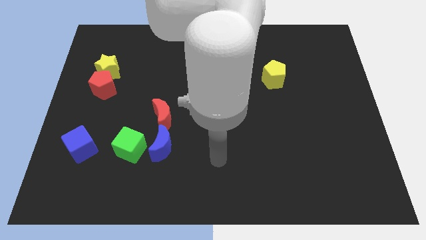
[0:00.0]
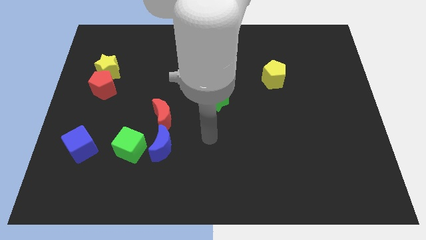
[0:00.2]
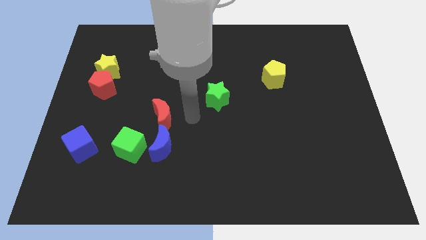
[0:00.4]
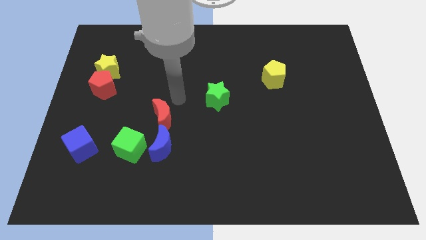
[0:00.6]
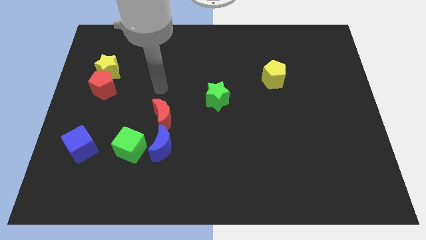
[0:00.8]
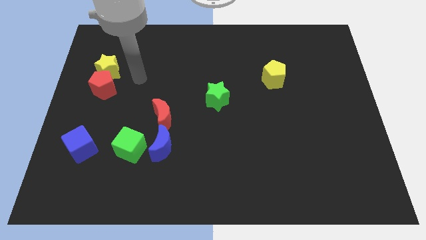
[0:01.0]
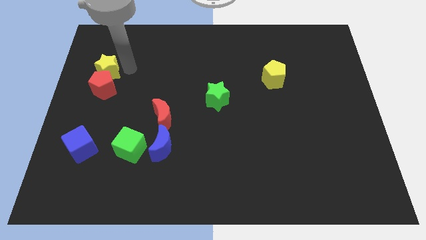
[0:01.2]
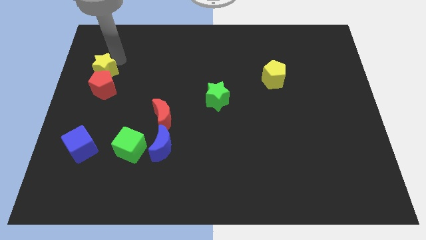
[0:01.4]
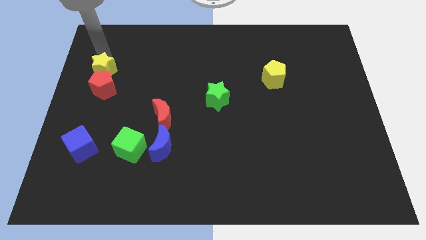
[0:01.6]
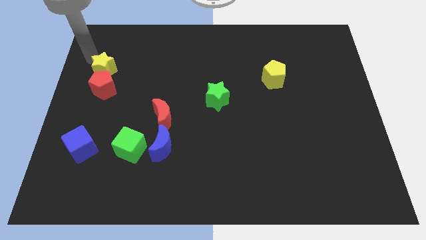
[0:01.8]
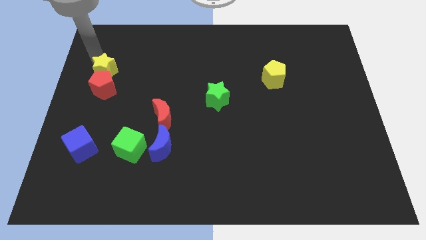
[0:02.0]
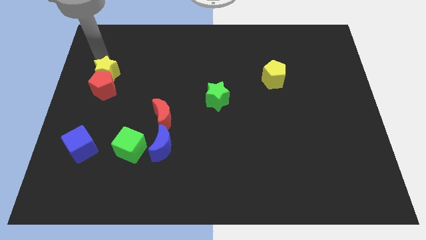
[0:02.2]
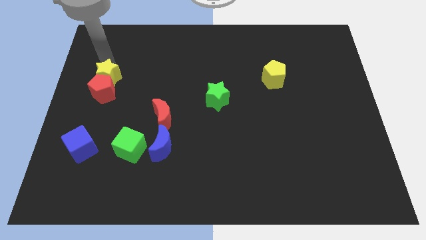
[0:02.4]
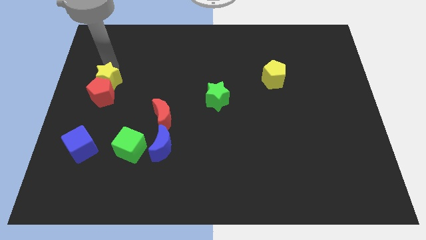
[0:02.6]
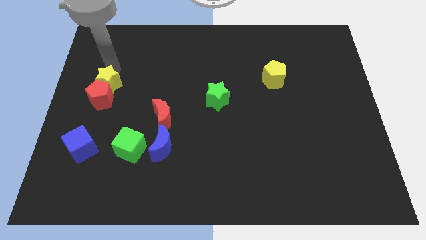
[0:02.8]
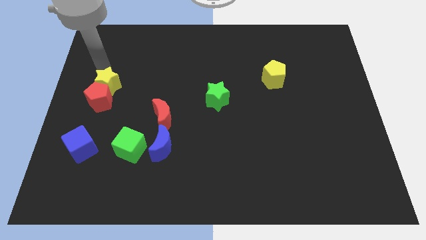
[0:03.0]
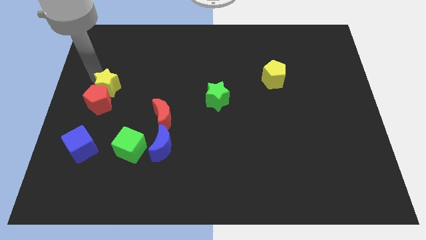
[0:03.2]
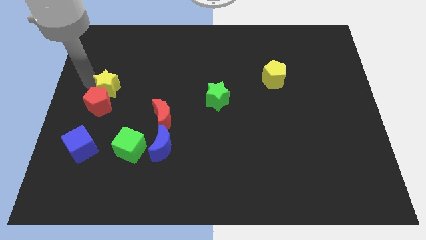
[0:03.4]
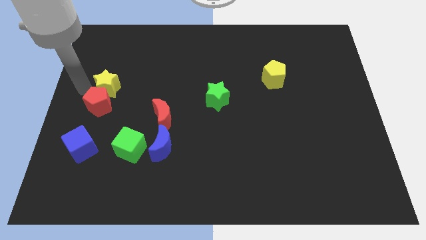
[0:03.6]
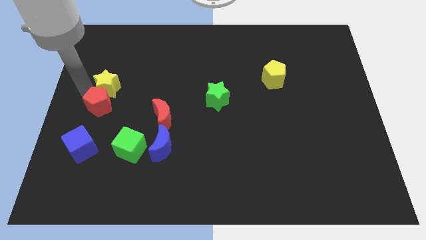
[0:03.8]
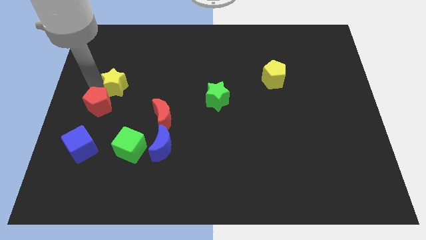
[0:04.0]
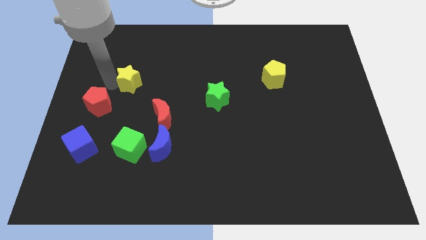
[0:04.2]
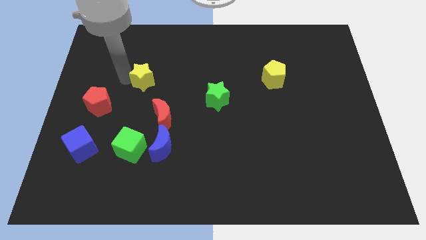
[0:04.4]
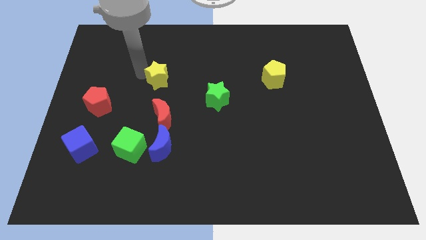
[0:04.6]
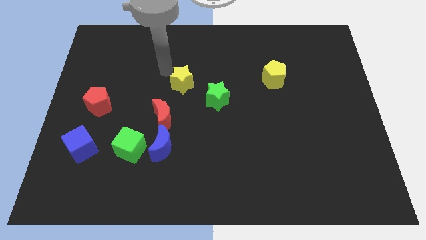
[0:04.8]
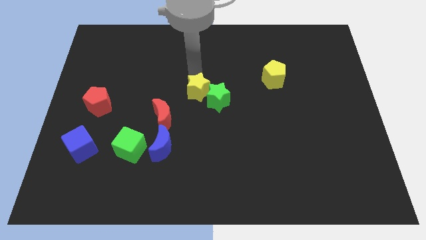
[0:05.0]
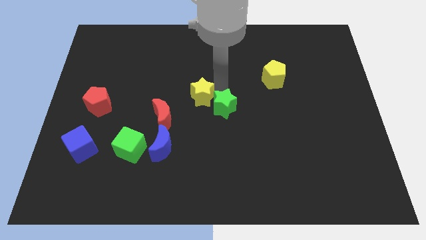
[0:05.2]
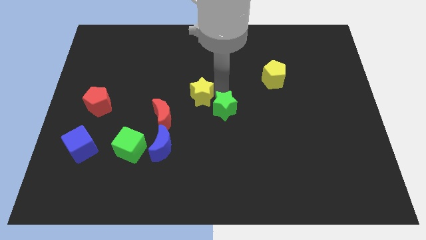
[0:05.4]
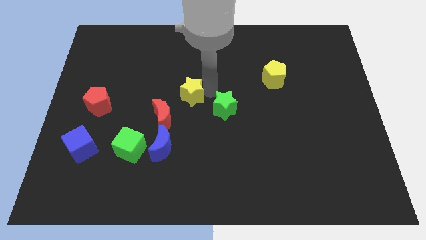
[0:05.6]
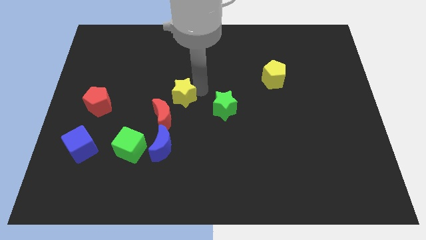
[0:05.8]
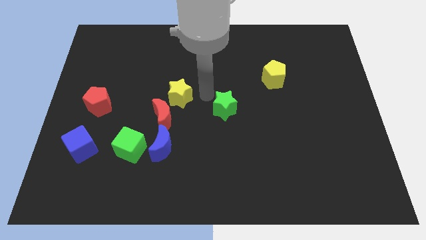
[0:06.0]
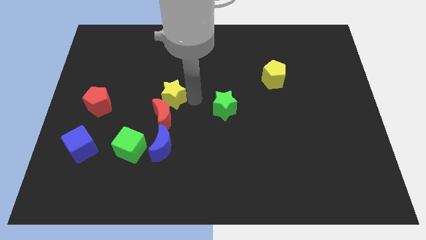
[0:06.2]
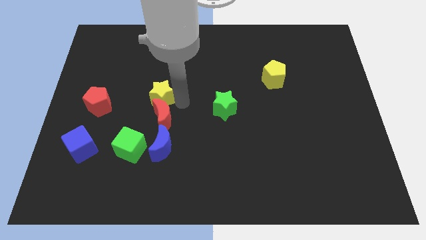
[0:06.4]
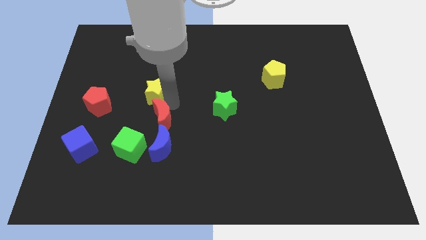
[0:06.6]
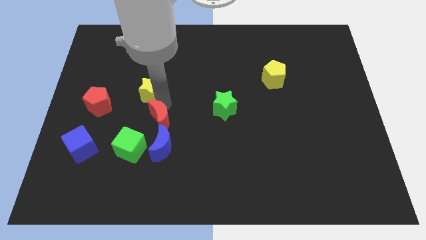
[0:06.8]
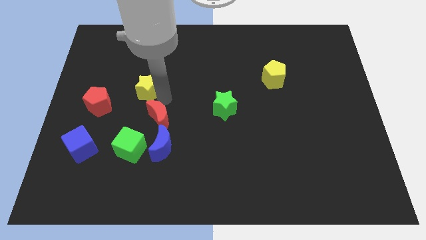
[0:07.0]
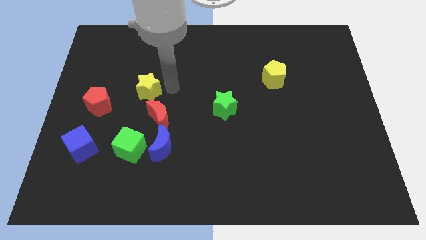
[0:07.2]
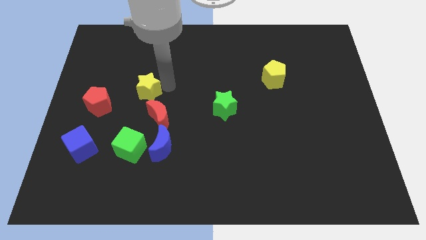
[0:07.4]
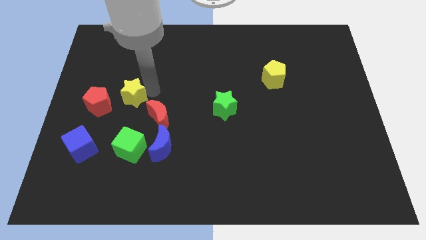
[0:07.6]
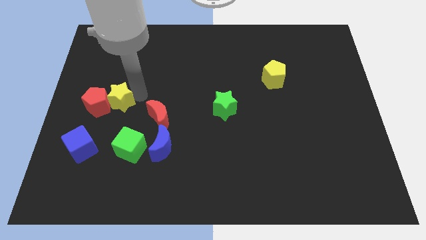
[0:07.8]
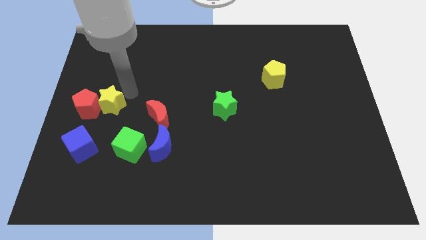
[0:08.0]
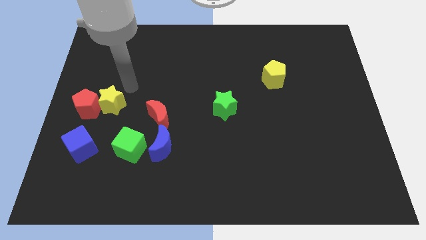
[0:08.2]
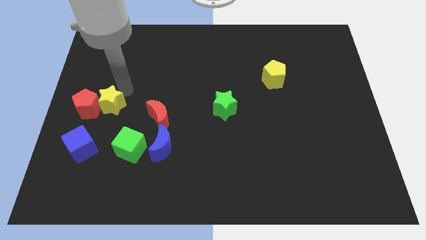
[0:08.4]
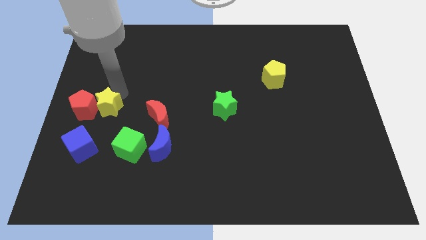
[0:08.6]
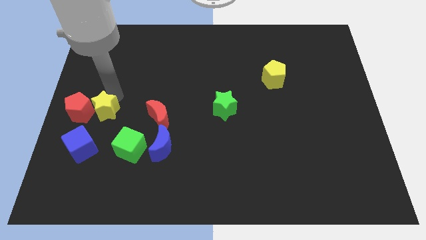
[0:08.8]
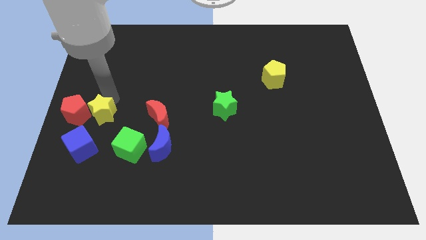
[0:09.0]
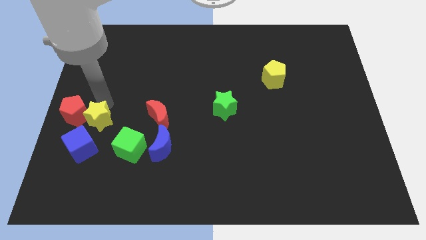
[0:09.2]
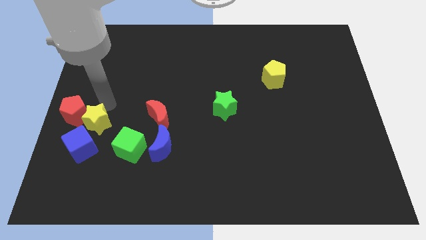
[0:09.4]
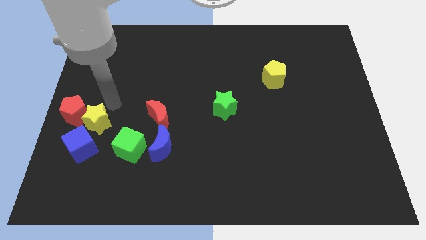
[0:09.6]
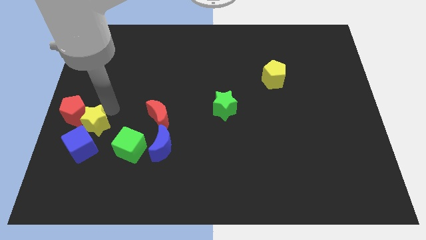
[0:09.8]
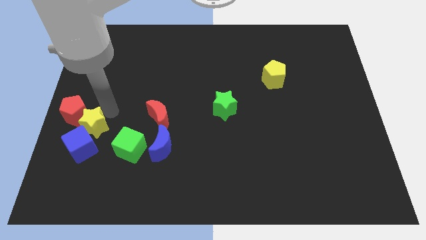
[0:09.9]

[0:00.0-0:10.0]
slide the yellow star next to the blue cube

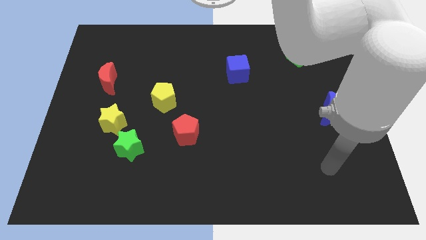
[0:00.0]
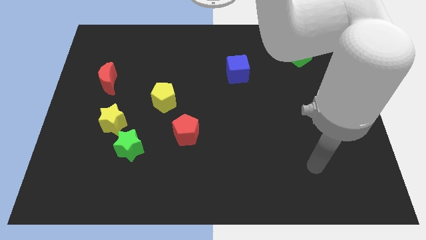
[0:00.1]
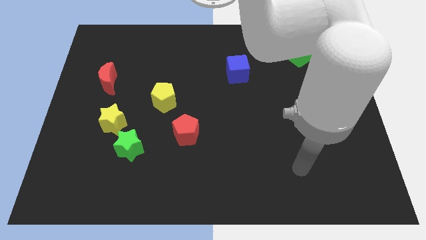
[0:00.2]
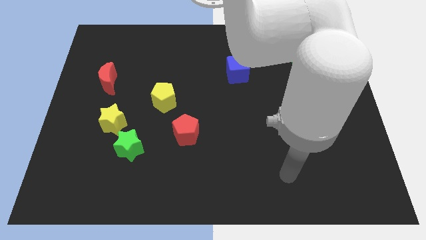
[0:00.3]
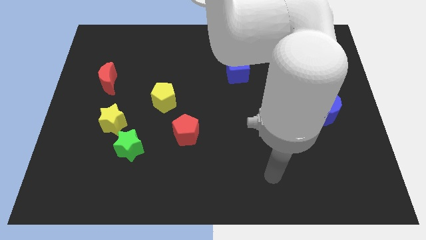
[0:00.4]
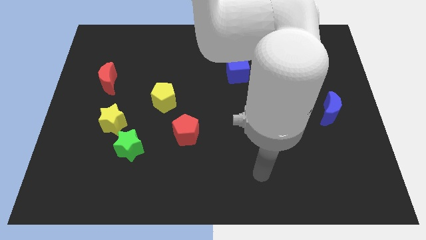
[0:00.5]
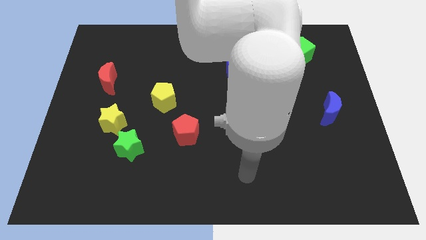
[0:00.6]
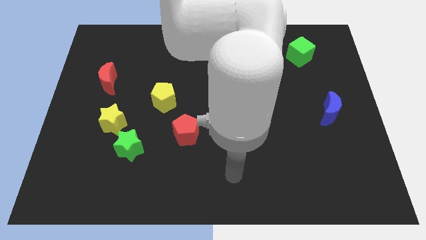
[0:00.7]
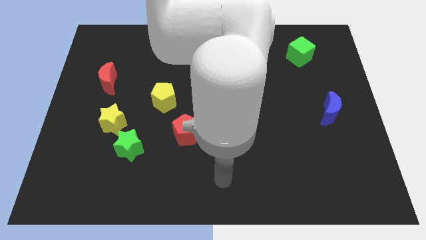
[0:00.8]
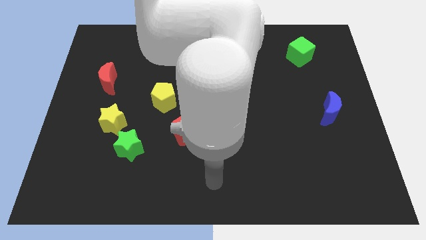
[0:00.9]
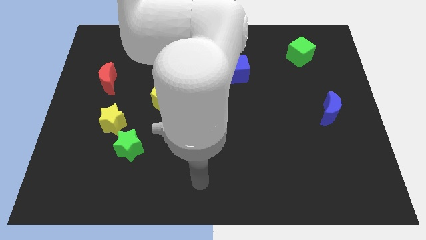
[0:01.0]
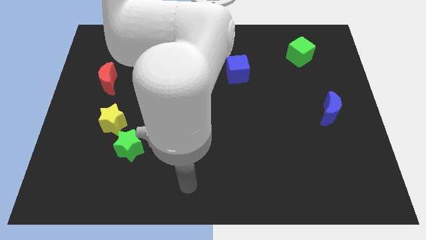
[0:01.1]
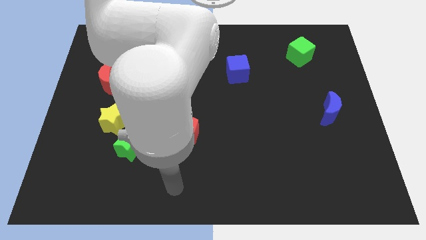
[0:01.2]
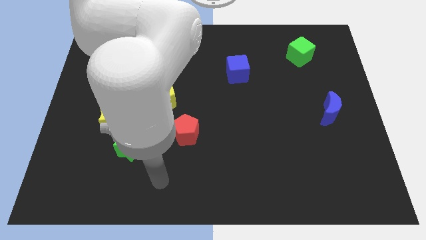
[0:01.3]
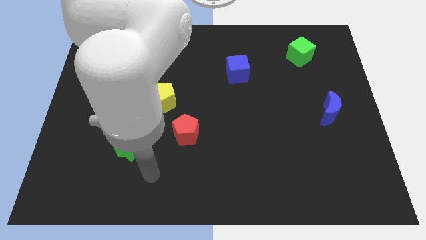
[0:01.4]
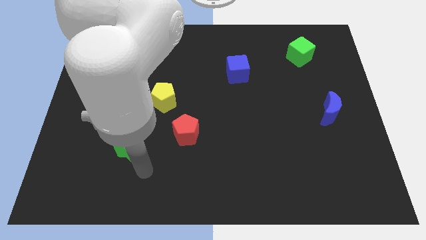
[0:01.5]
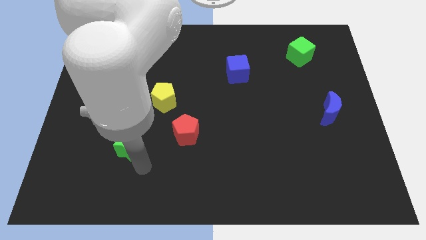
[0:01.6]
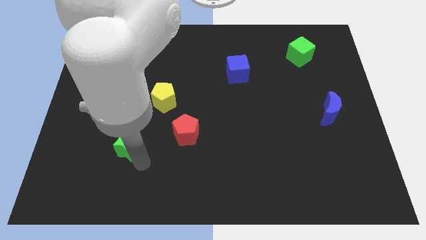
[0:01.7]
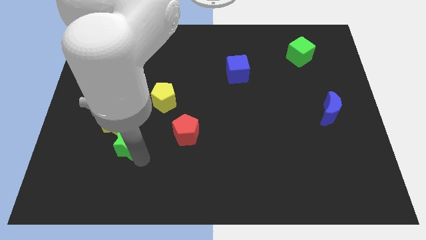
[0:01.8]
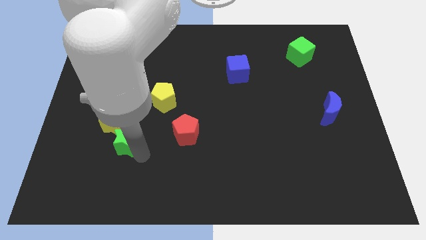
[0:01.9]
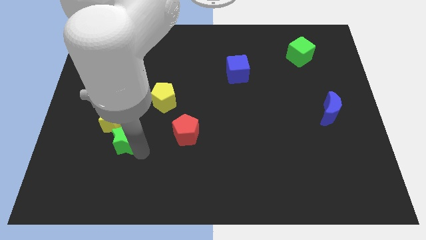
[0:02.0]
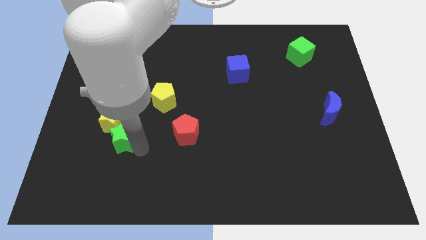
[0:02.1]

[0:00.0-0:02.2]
move the green star towards the yellow star
